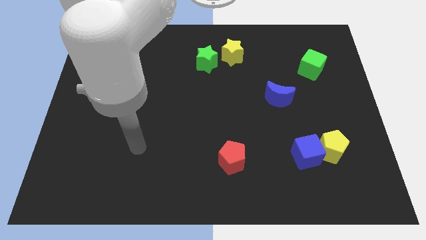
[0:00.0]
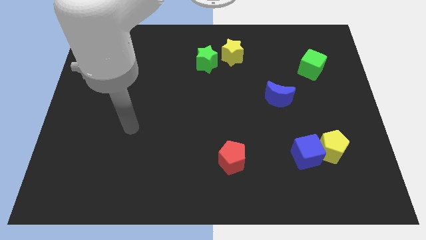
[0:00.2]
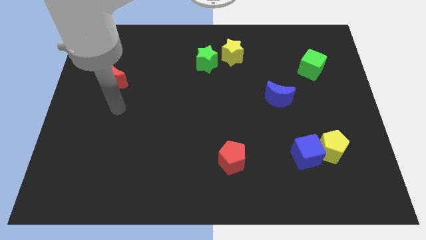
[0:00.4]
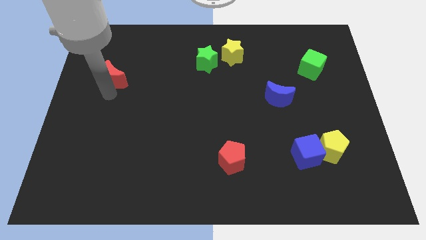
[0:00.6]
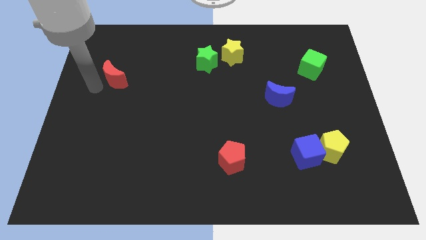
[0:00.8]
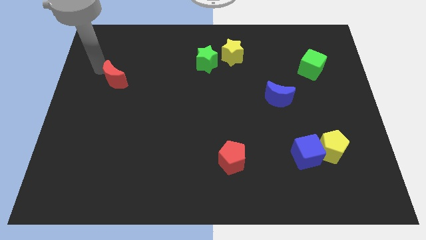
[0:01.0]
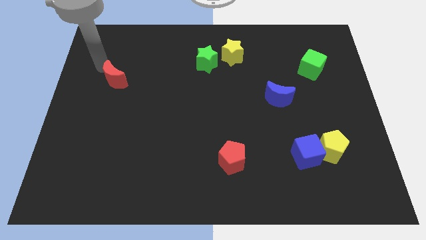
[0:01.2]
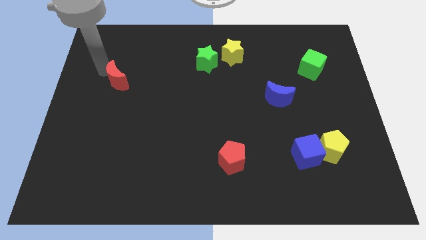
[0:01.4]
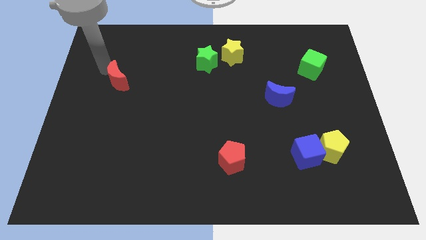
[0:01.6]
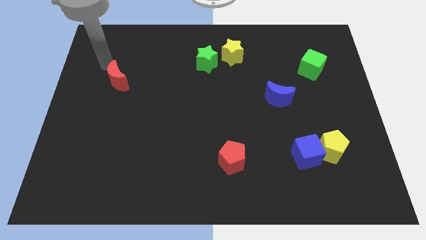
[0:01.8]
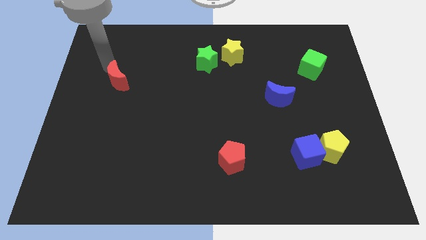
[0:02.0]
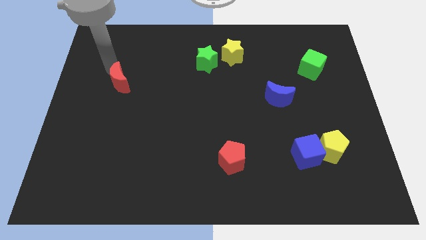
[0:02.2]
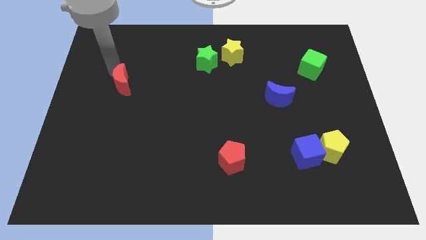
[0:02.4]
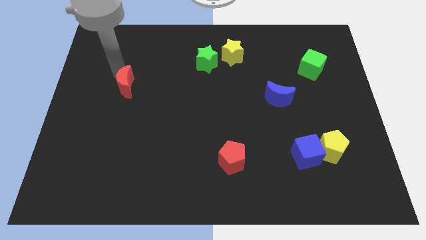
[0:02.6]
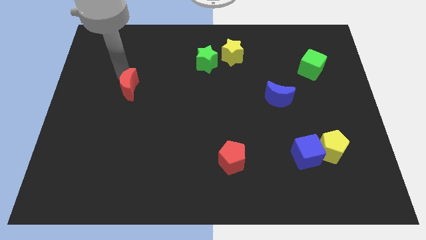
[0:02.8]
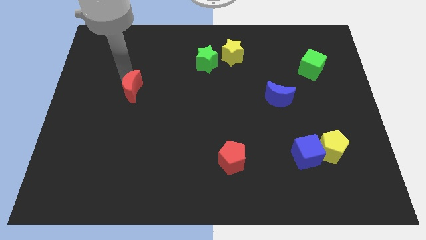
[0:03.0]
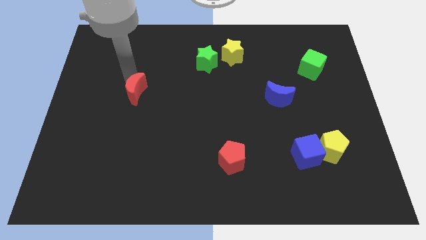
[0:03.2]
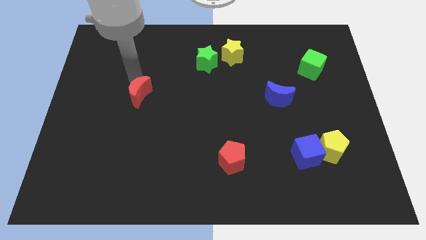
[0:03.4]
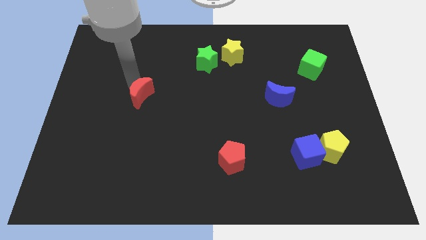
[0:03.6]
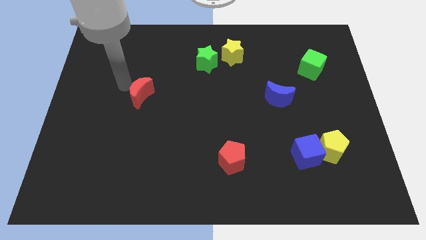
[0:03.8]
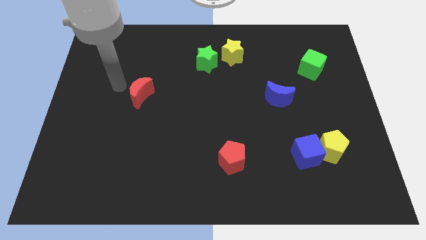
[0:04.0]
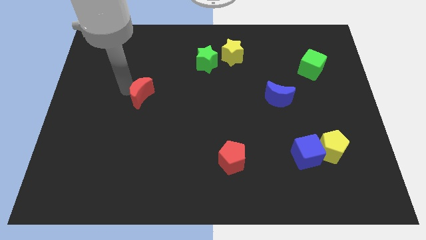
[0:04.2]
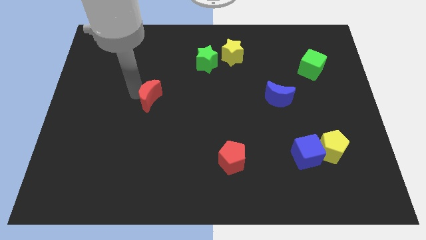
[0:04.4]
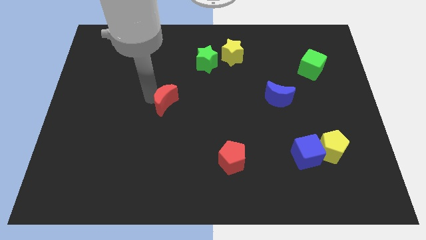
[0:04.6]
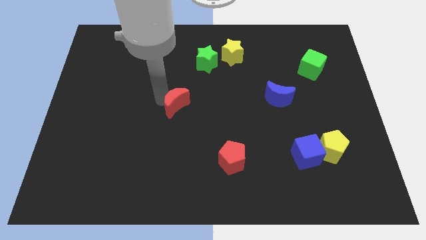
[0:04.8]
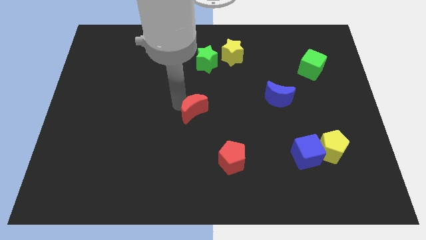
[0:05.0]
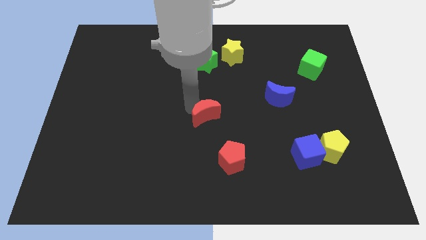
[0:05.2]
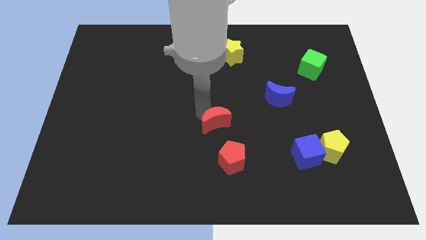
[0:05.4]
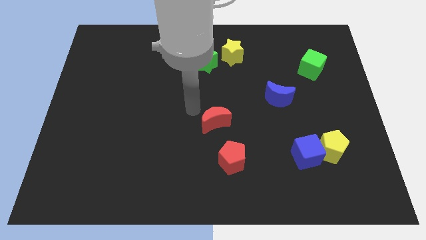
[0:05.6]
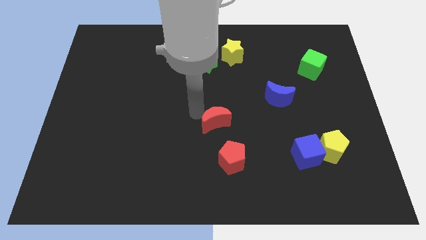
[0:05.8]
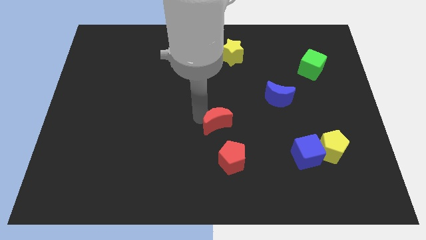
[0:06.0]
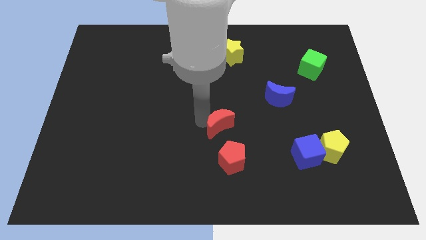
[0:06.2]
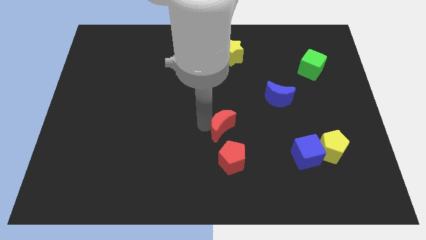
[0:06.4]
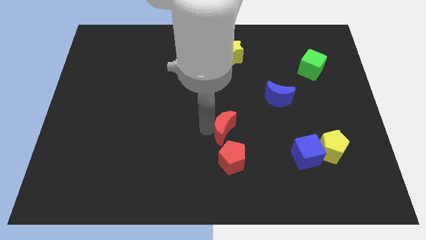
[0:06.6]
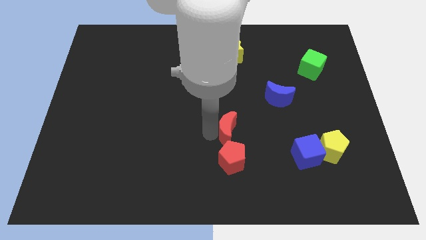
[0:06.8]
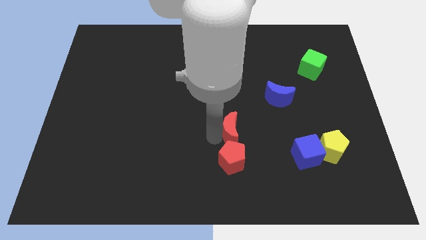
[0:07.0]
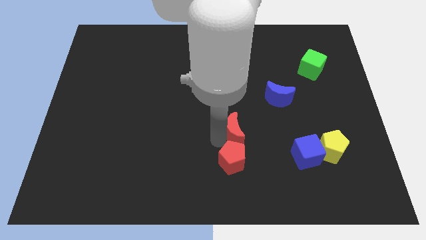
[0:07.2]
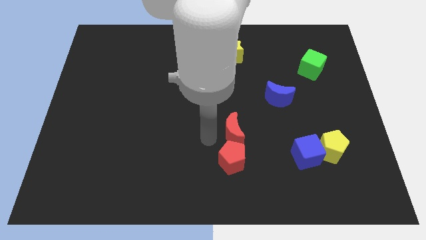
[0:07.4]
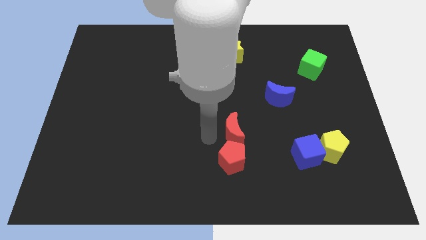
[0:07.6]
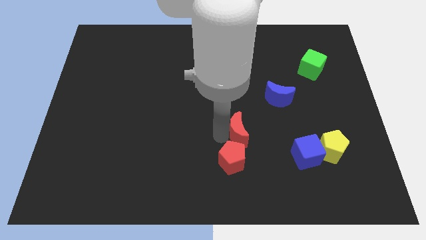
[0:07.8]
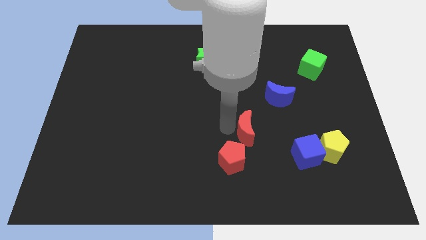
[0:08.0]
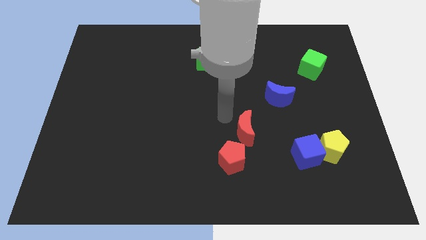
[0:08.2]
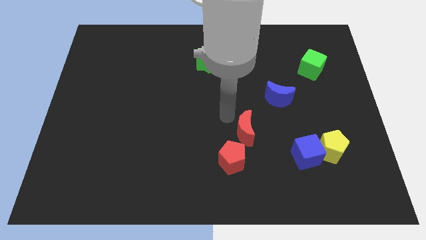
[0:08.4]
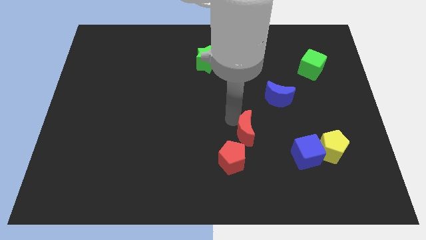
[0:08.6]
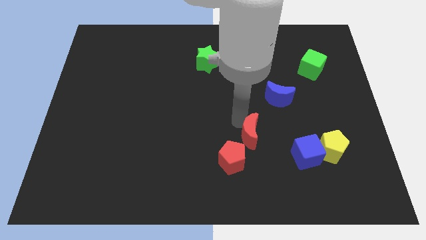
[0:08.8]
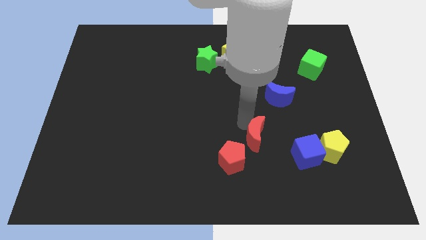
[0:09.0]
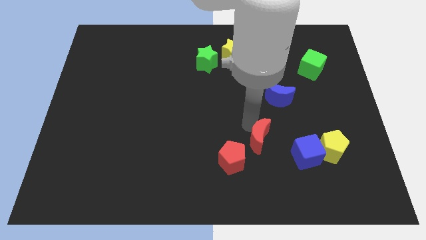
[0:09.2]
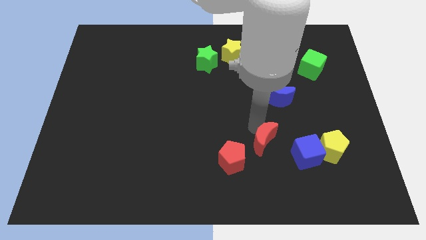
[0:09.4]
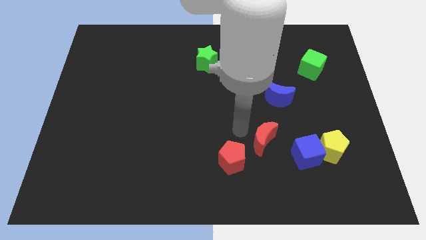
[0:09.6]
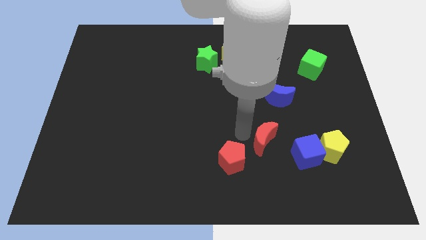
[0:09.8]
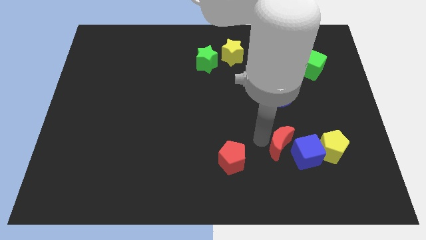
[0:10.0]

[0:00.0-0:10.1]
slide the red moon towards the blue cube

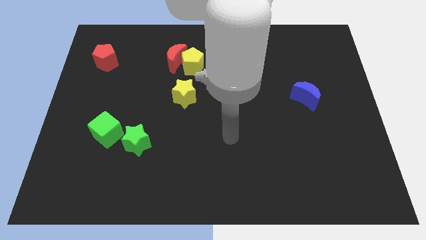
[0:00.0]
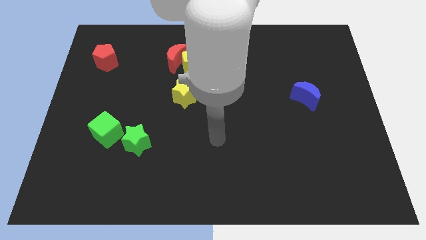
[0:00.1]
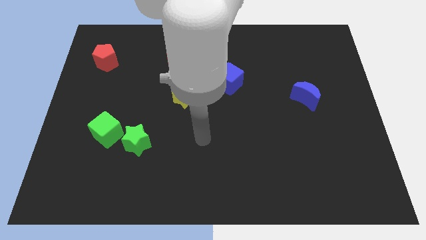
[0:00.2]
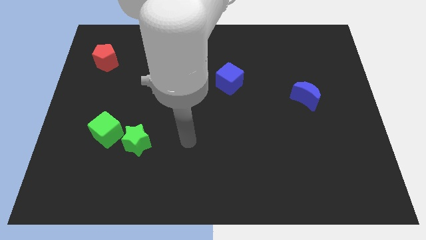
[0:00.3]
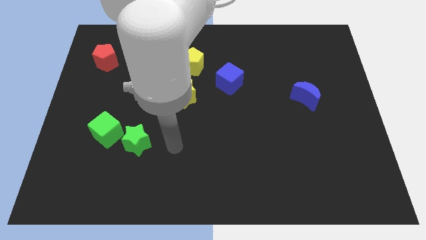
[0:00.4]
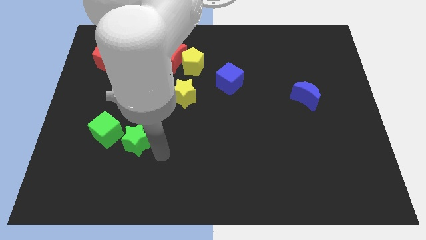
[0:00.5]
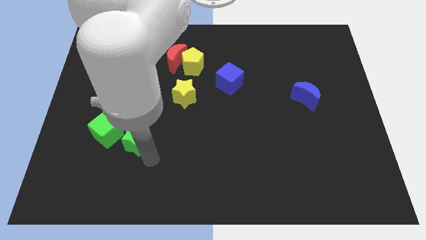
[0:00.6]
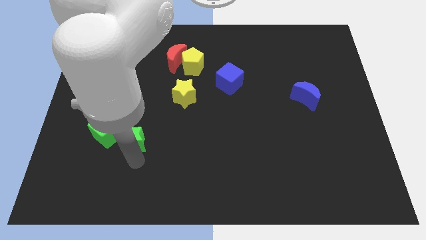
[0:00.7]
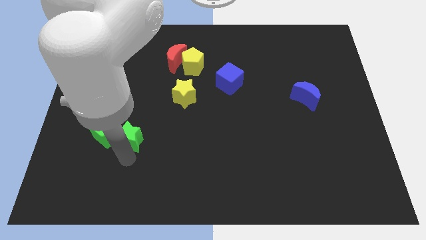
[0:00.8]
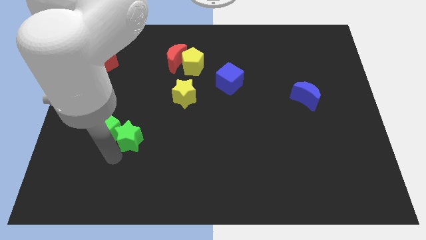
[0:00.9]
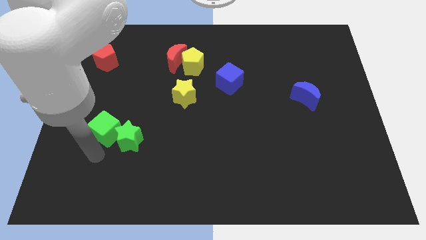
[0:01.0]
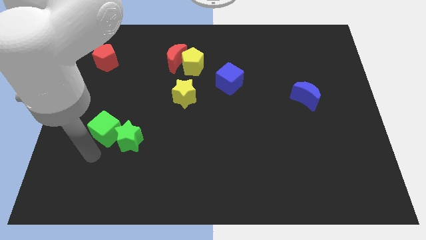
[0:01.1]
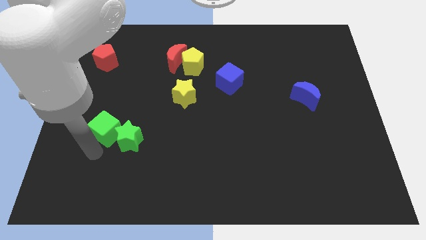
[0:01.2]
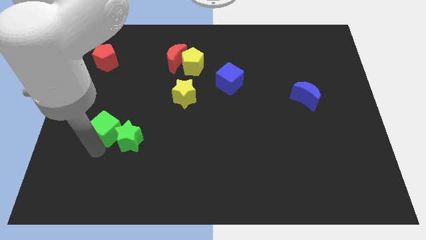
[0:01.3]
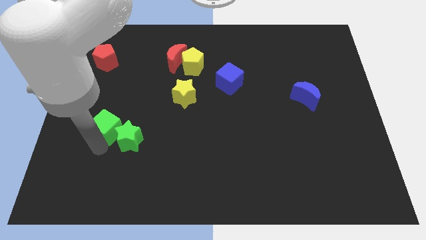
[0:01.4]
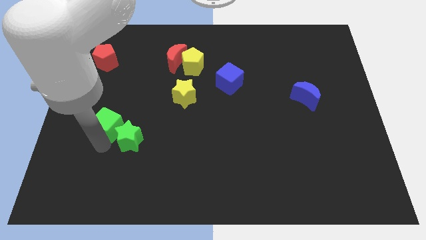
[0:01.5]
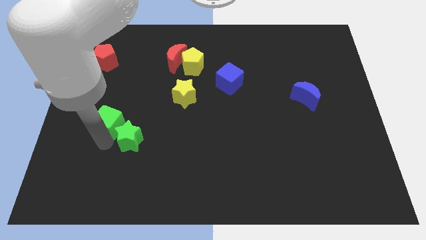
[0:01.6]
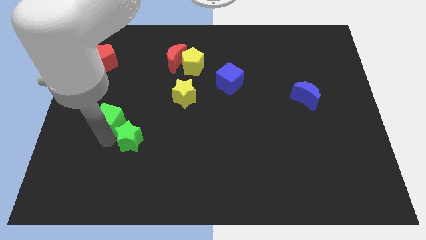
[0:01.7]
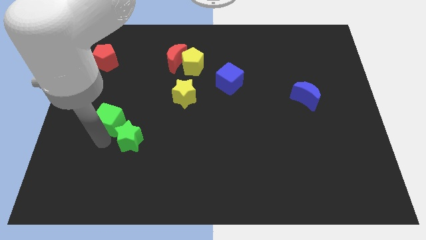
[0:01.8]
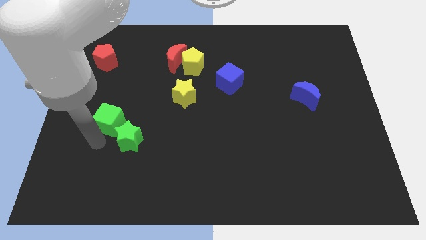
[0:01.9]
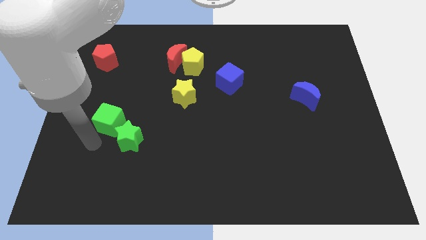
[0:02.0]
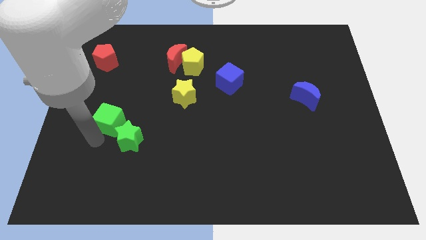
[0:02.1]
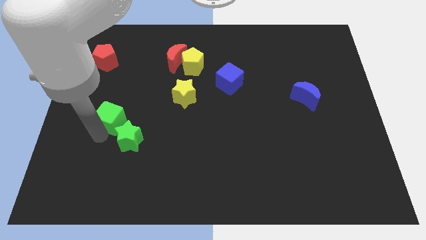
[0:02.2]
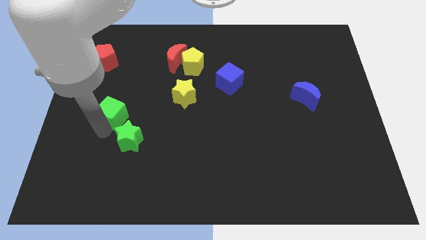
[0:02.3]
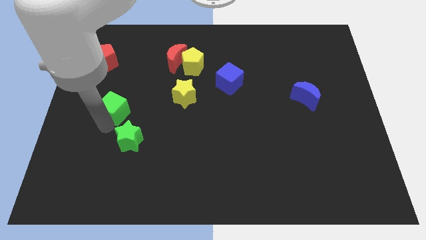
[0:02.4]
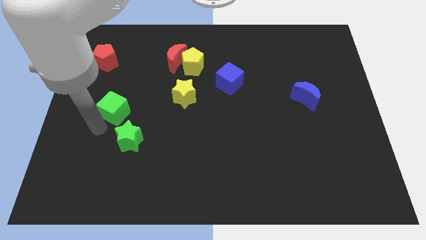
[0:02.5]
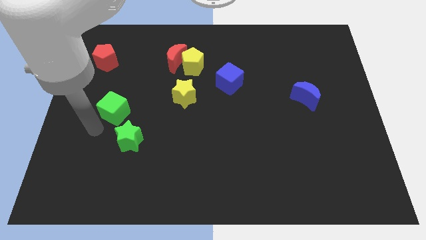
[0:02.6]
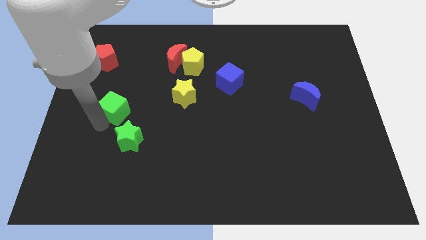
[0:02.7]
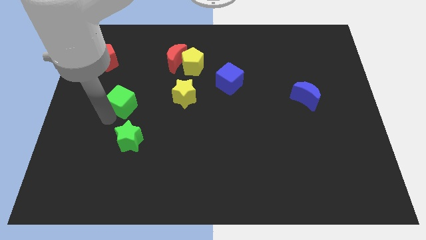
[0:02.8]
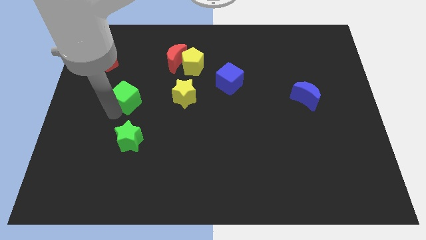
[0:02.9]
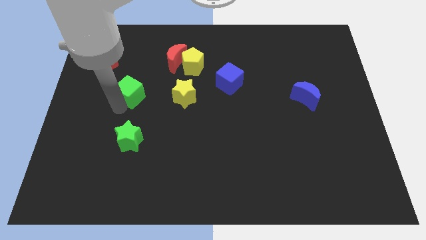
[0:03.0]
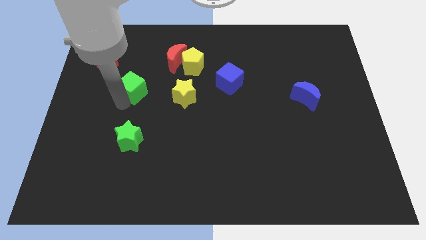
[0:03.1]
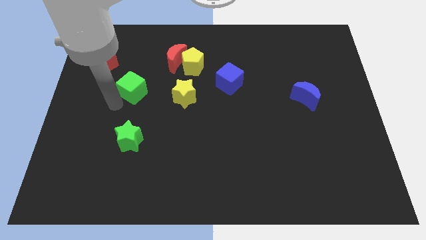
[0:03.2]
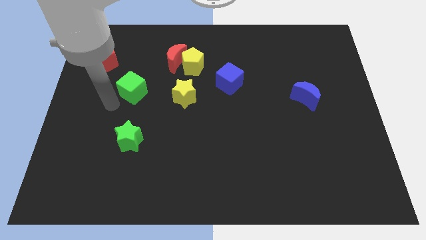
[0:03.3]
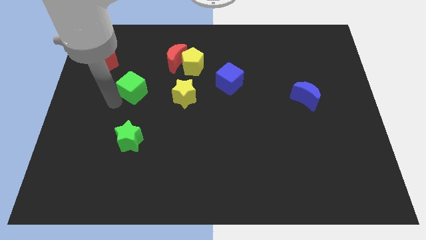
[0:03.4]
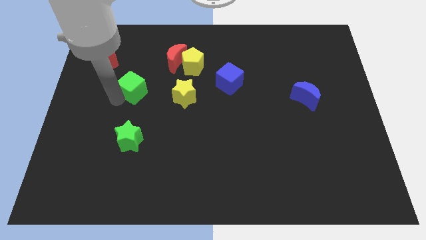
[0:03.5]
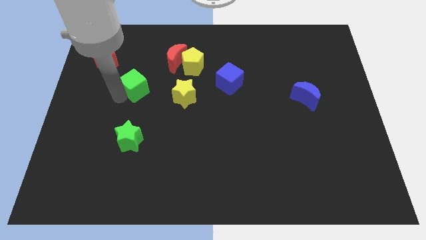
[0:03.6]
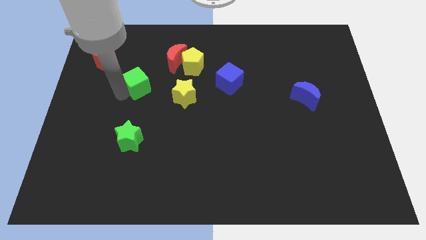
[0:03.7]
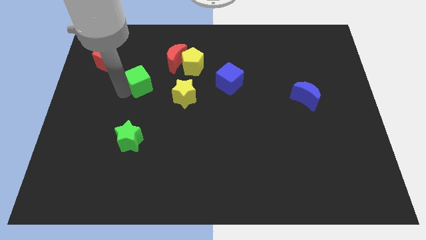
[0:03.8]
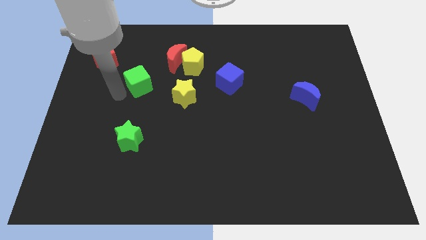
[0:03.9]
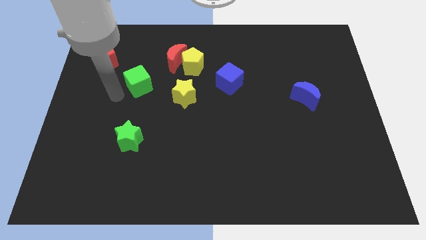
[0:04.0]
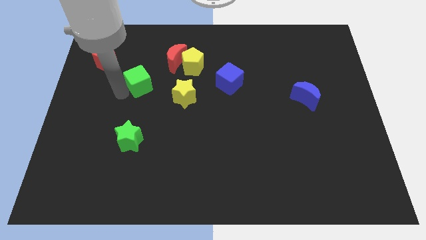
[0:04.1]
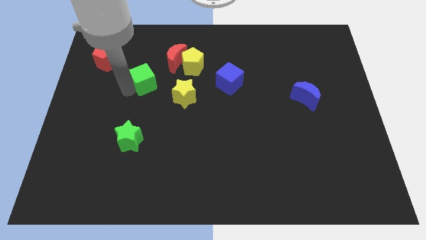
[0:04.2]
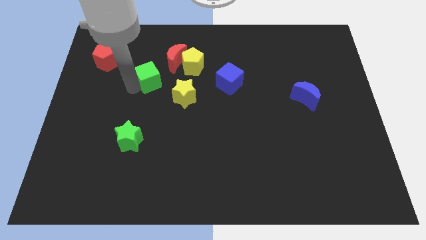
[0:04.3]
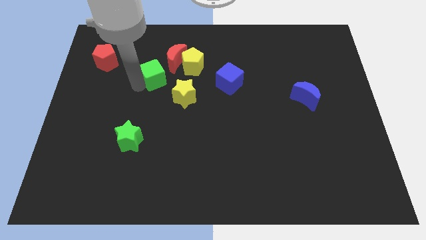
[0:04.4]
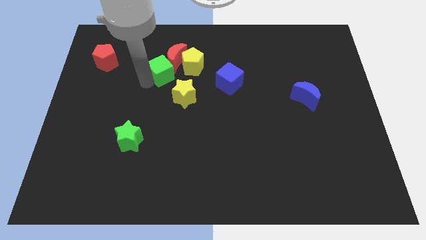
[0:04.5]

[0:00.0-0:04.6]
slide the green cube towards the red moon
